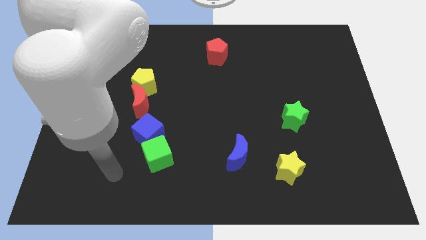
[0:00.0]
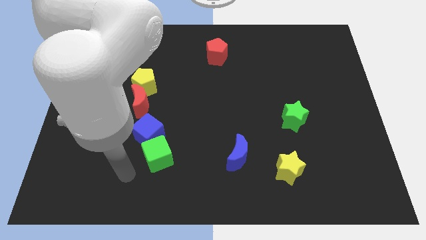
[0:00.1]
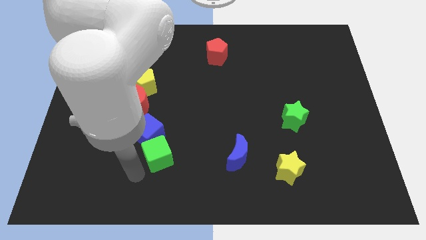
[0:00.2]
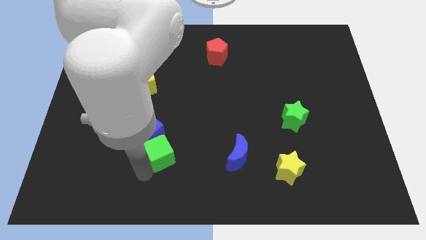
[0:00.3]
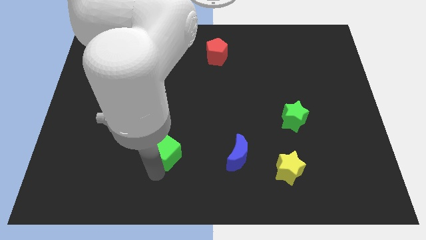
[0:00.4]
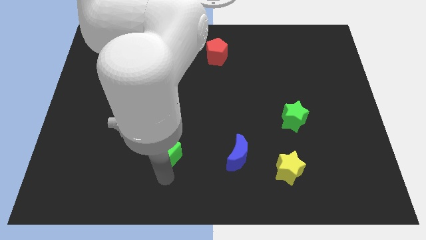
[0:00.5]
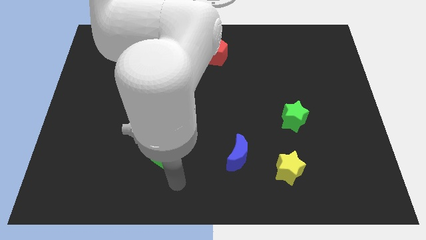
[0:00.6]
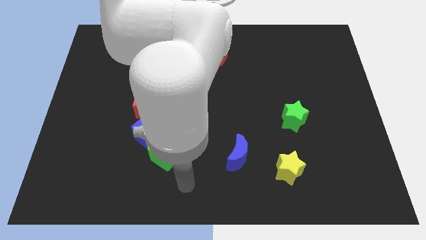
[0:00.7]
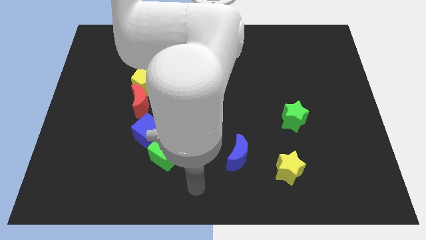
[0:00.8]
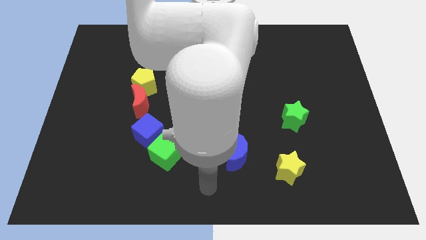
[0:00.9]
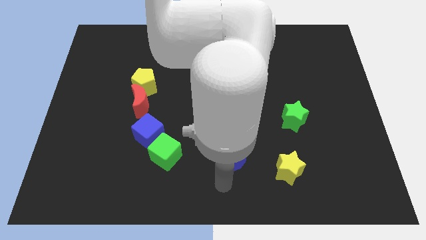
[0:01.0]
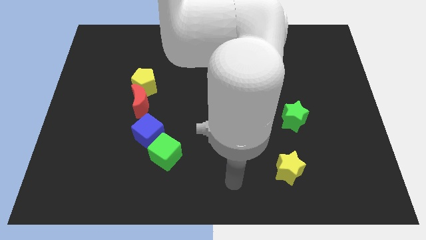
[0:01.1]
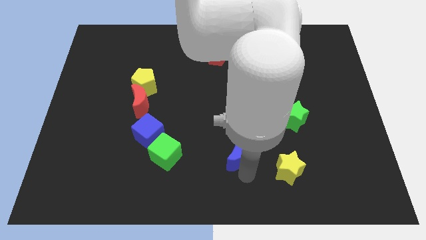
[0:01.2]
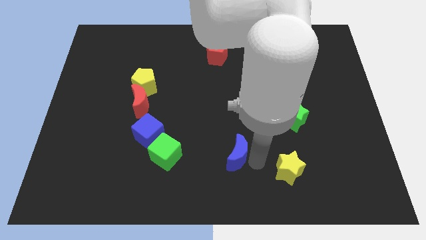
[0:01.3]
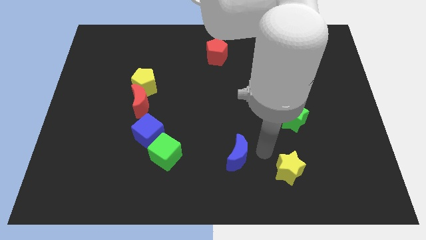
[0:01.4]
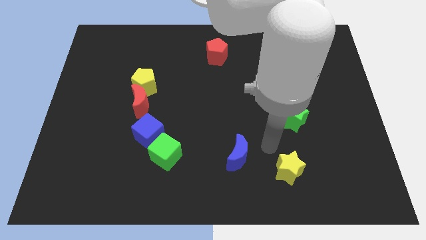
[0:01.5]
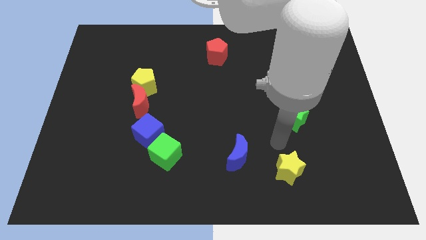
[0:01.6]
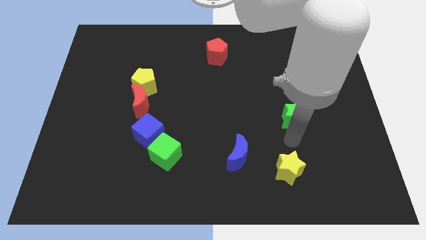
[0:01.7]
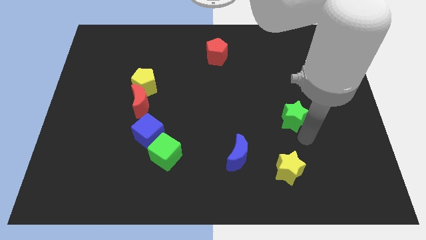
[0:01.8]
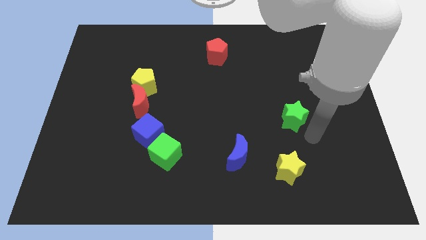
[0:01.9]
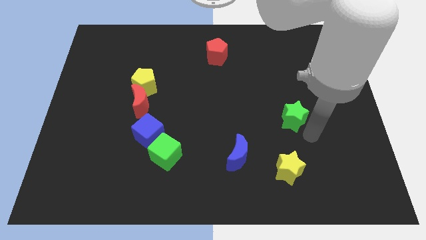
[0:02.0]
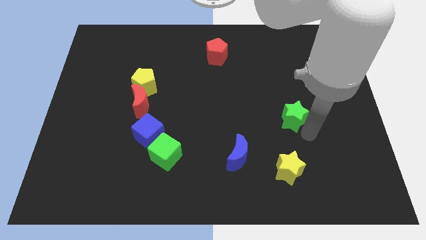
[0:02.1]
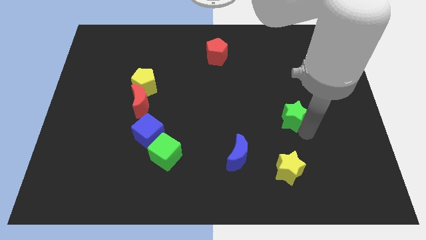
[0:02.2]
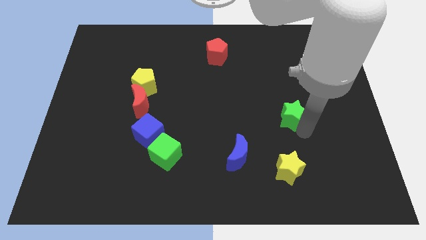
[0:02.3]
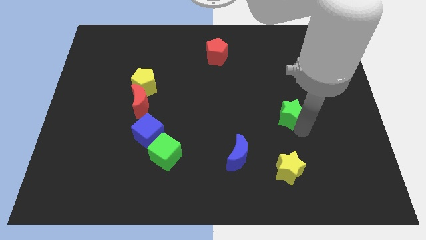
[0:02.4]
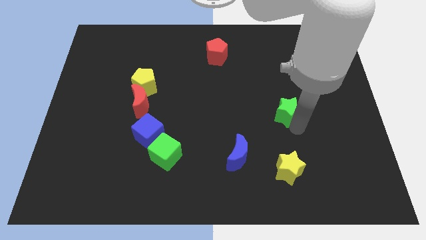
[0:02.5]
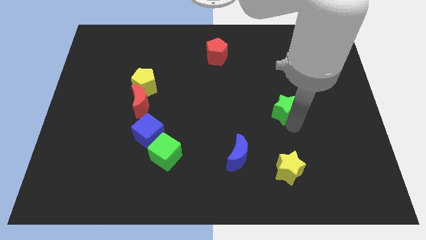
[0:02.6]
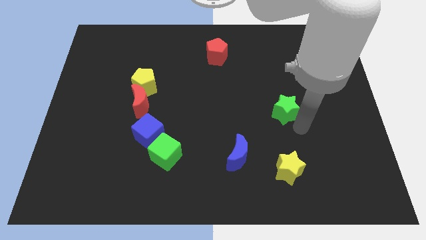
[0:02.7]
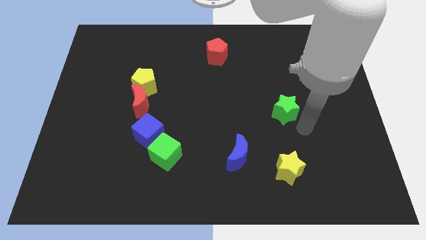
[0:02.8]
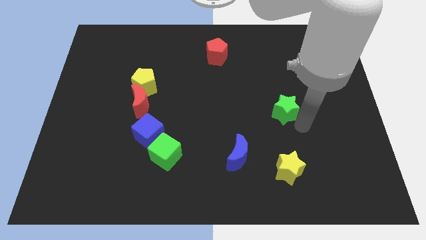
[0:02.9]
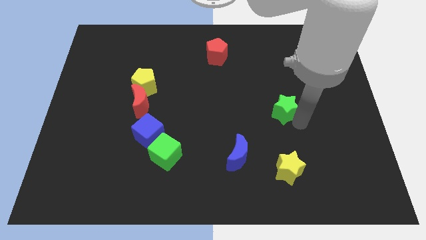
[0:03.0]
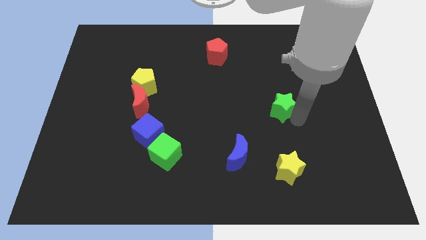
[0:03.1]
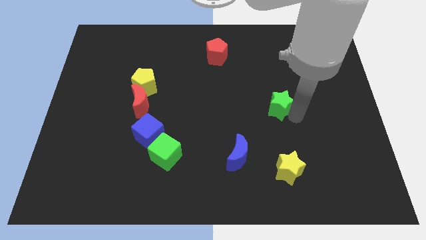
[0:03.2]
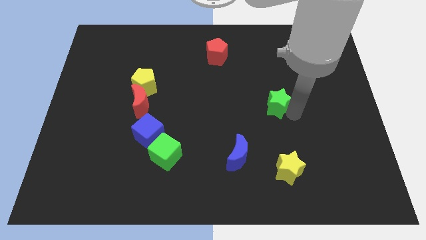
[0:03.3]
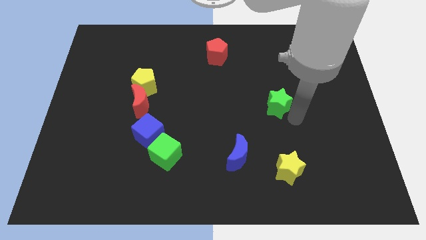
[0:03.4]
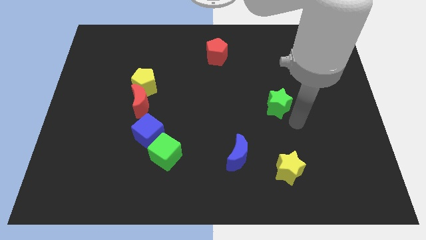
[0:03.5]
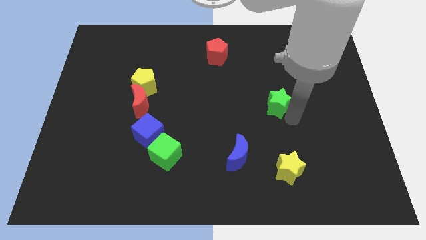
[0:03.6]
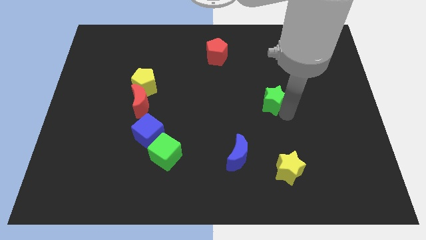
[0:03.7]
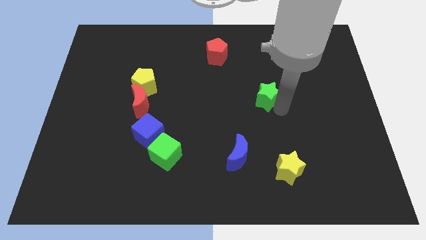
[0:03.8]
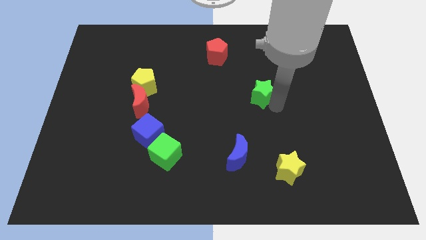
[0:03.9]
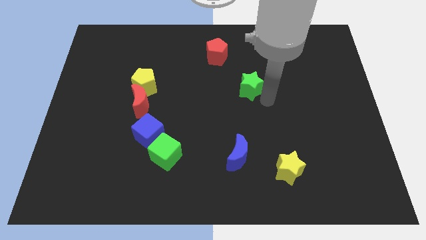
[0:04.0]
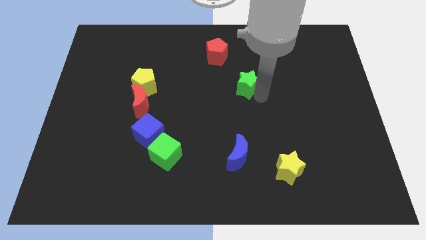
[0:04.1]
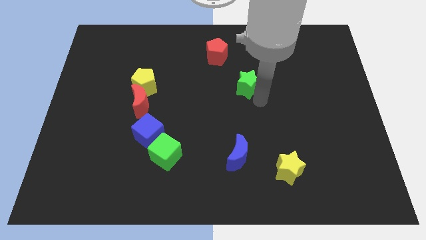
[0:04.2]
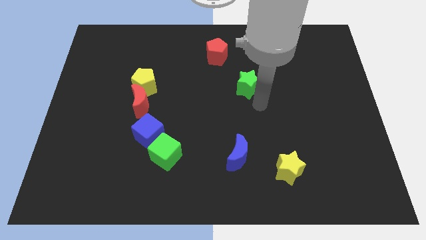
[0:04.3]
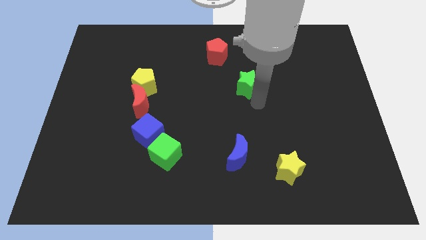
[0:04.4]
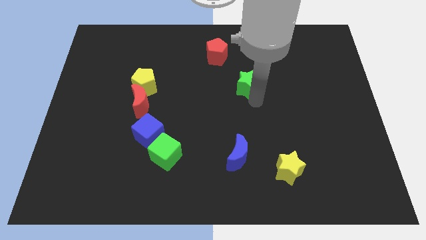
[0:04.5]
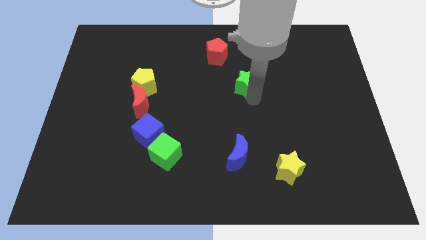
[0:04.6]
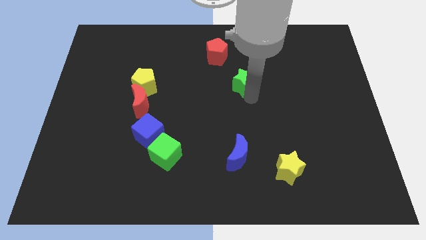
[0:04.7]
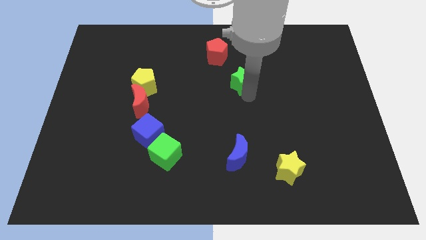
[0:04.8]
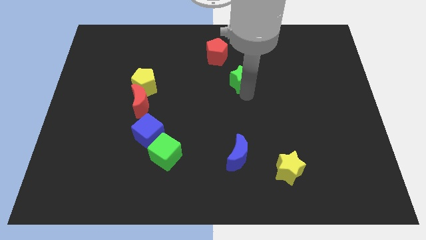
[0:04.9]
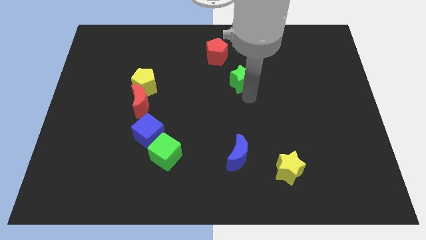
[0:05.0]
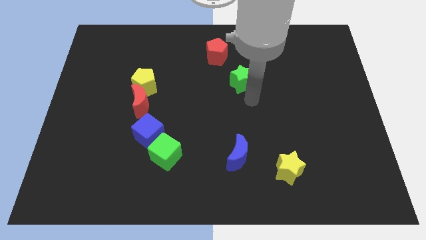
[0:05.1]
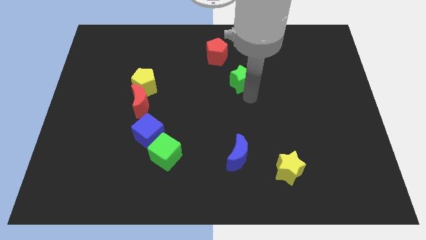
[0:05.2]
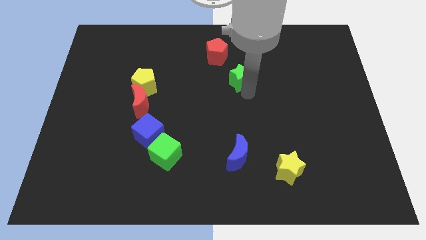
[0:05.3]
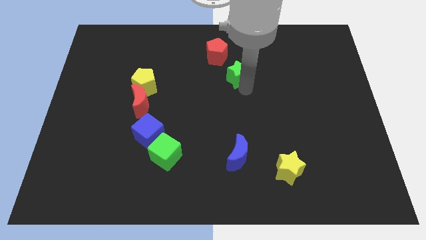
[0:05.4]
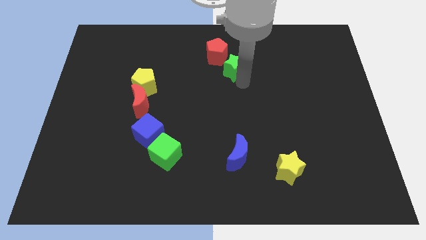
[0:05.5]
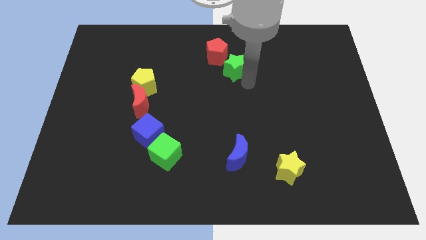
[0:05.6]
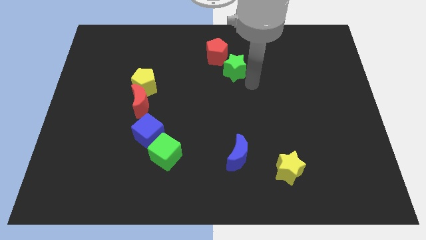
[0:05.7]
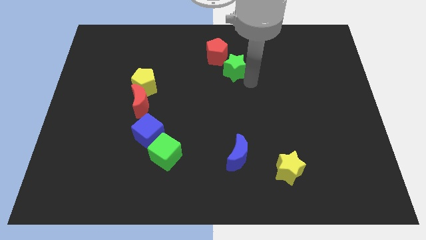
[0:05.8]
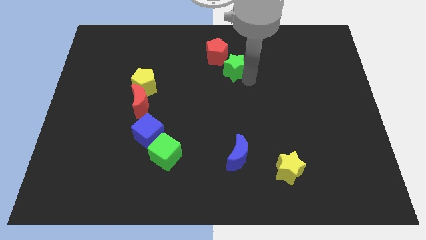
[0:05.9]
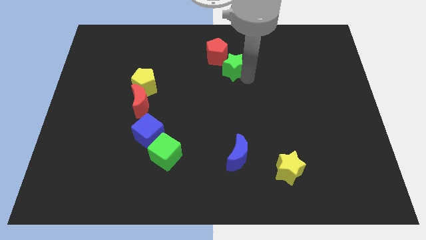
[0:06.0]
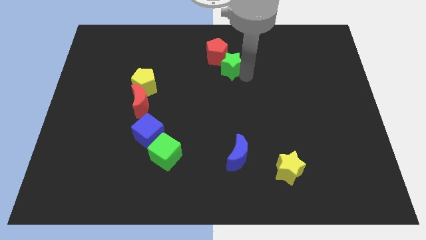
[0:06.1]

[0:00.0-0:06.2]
move the green star towards the red pentagon
